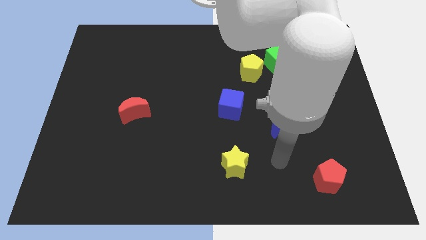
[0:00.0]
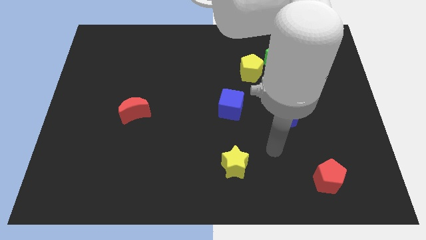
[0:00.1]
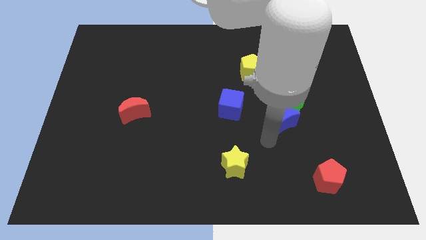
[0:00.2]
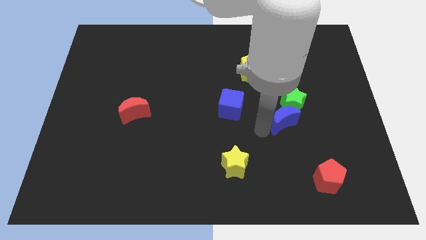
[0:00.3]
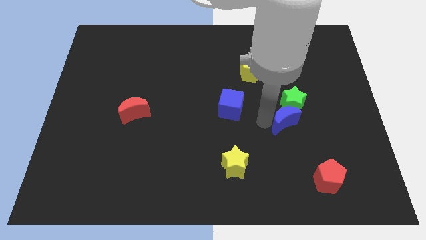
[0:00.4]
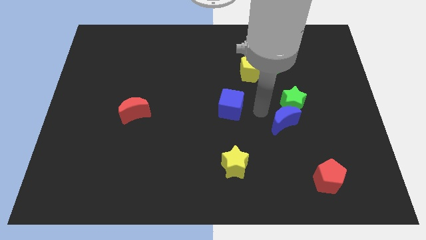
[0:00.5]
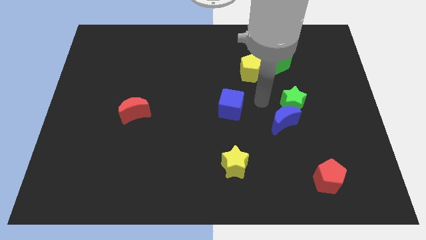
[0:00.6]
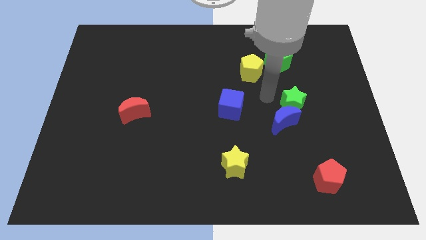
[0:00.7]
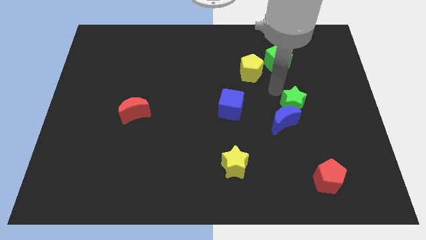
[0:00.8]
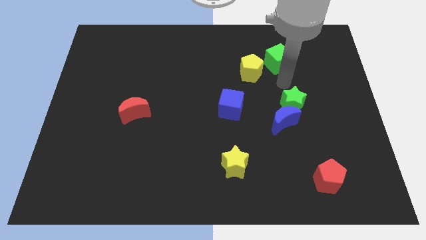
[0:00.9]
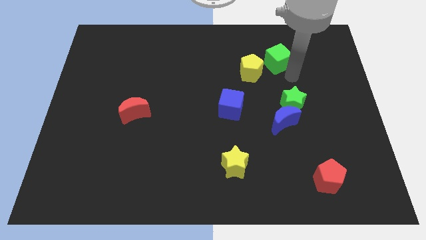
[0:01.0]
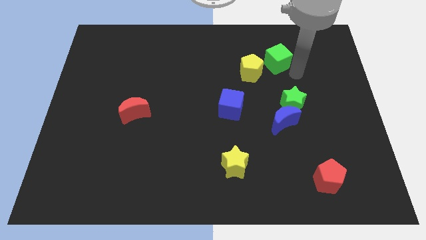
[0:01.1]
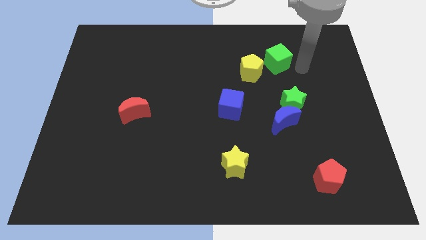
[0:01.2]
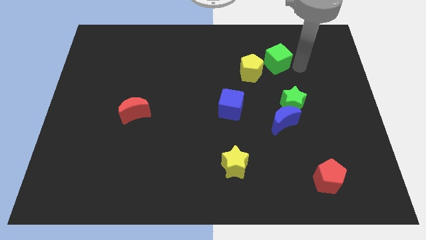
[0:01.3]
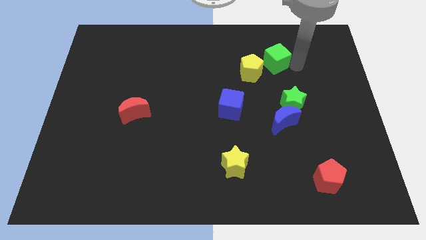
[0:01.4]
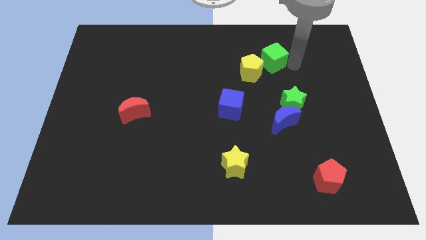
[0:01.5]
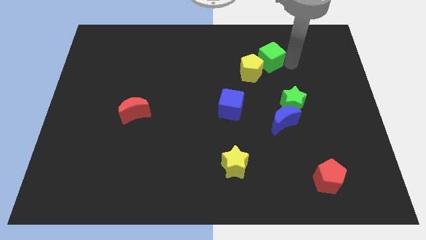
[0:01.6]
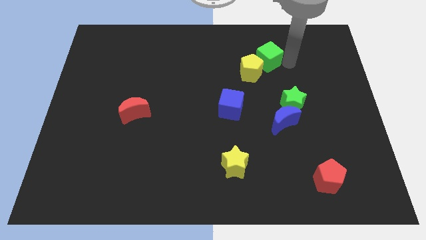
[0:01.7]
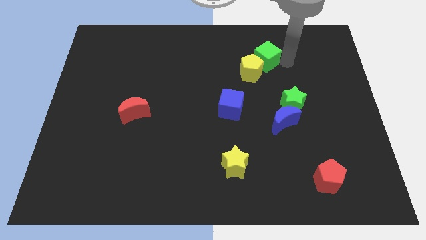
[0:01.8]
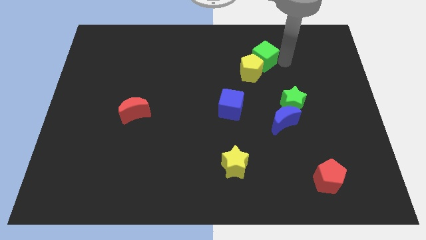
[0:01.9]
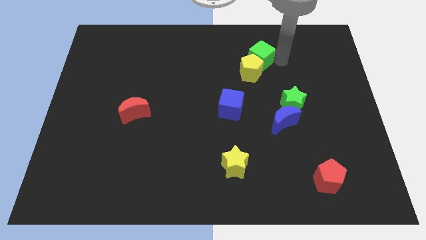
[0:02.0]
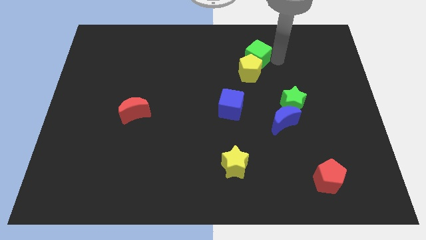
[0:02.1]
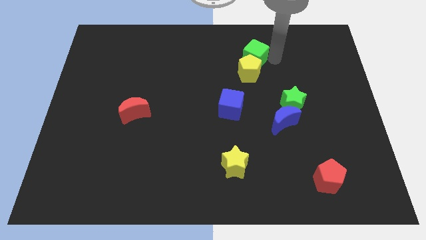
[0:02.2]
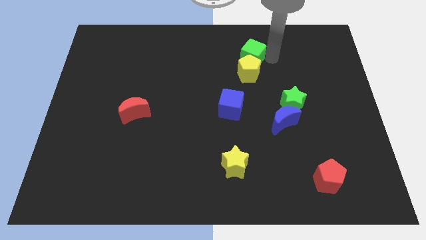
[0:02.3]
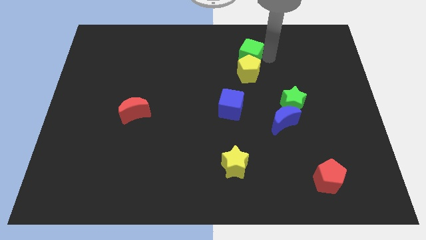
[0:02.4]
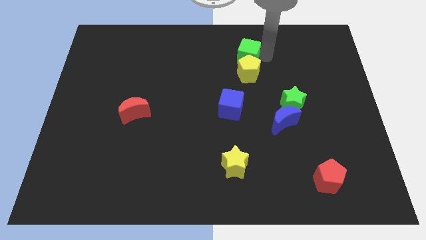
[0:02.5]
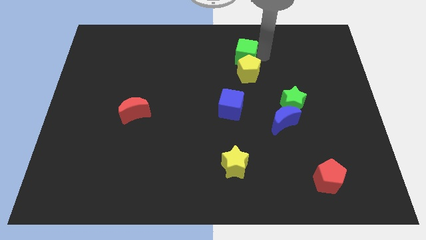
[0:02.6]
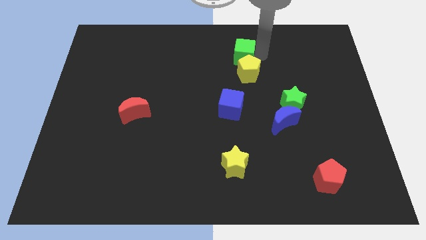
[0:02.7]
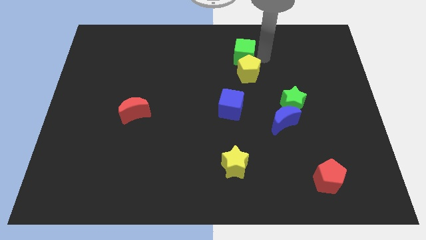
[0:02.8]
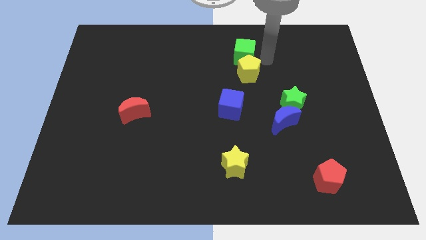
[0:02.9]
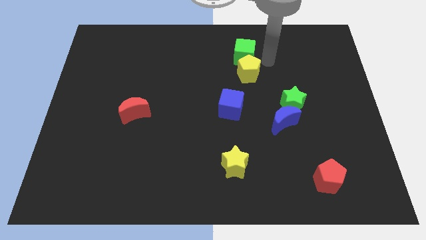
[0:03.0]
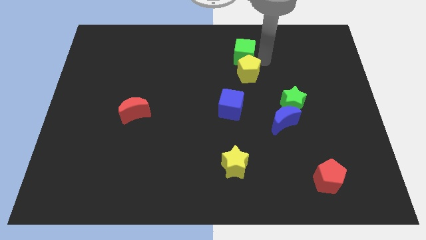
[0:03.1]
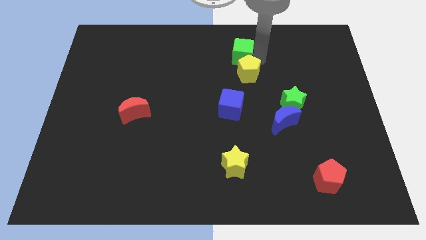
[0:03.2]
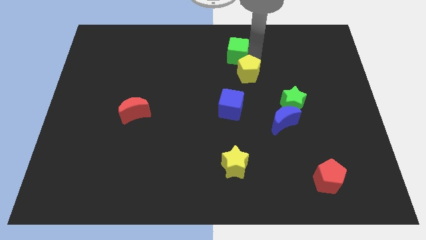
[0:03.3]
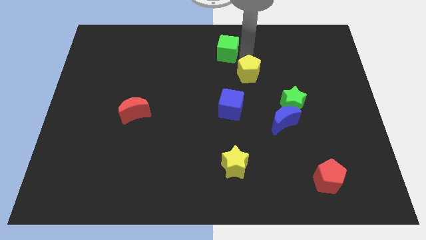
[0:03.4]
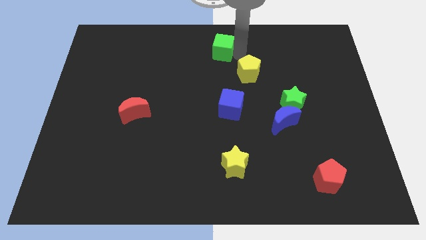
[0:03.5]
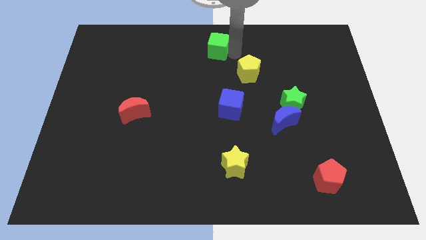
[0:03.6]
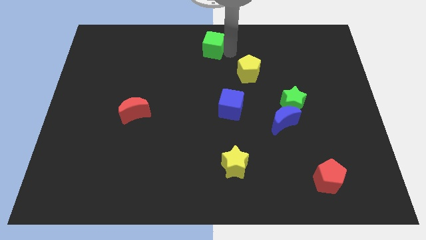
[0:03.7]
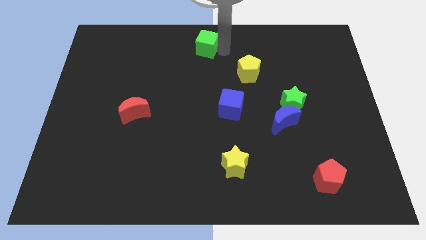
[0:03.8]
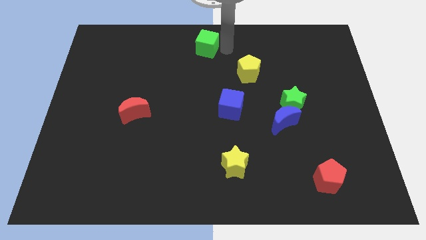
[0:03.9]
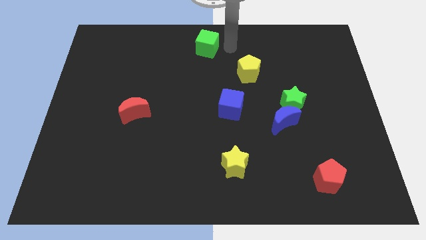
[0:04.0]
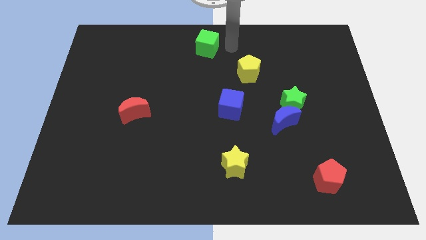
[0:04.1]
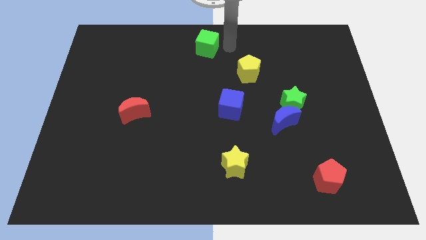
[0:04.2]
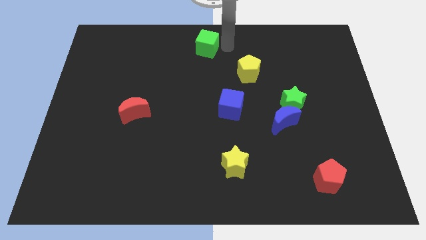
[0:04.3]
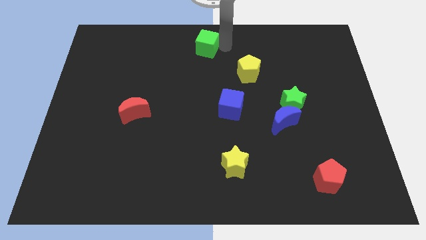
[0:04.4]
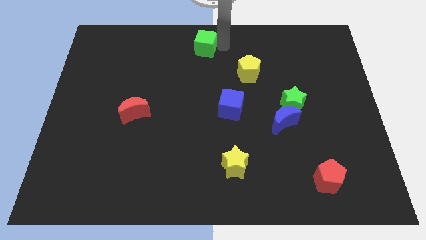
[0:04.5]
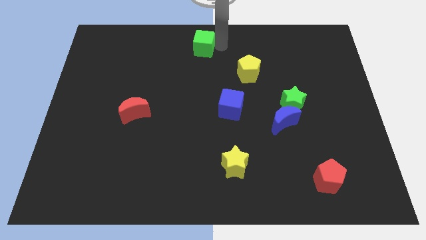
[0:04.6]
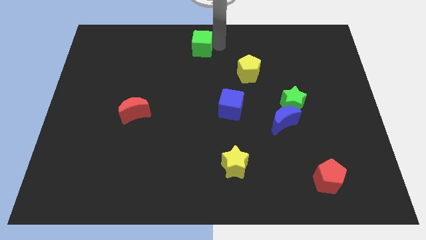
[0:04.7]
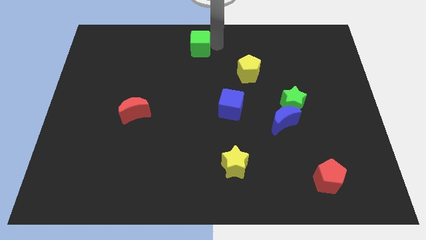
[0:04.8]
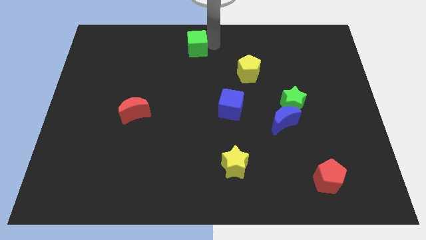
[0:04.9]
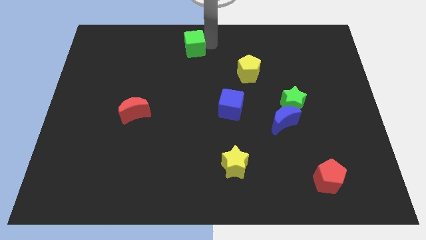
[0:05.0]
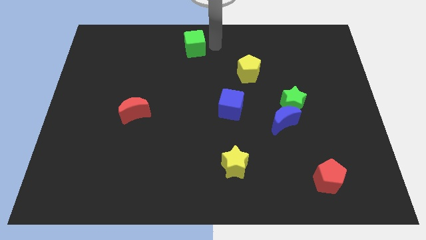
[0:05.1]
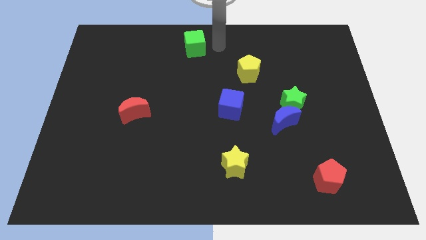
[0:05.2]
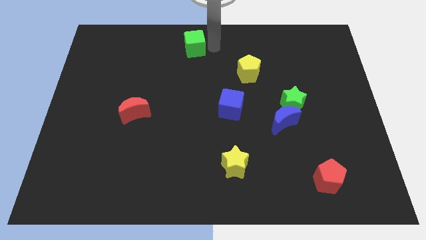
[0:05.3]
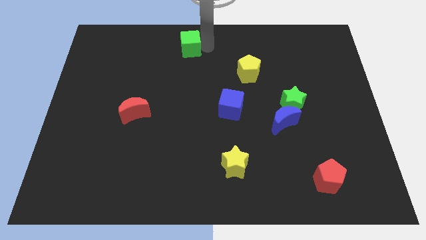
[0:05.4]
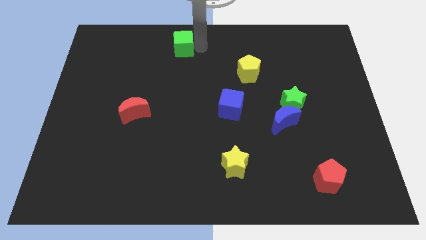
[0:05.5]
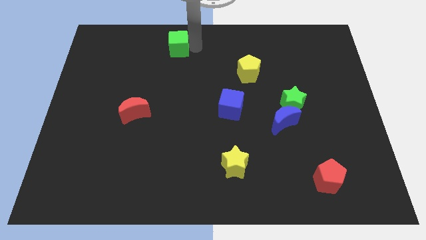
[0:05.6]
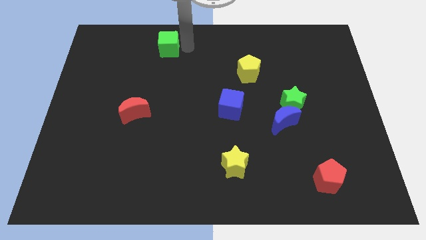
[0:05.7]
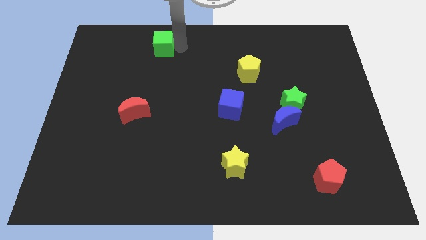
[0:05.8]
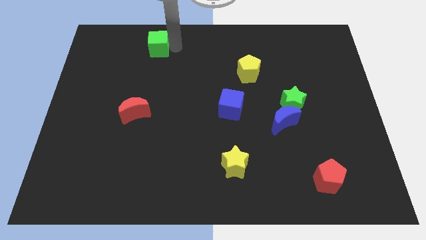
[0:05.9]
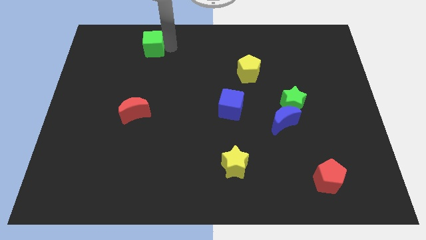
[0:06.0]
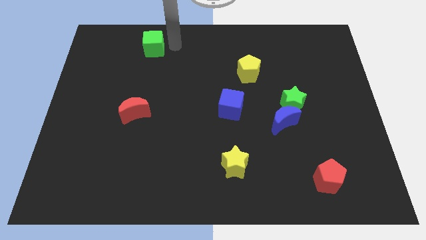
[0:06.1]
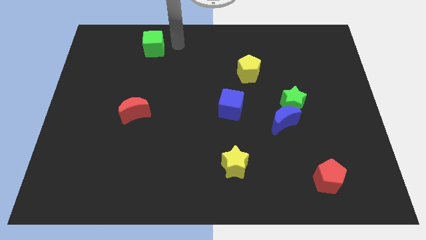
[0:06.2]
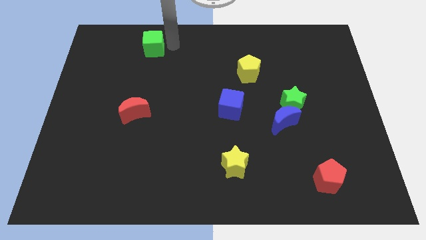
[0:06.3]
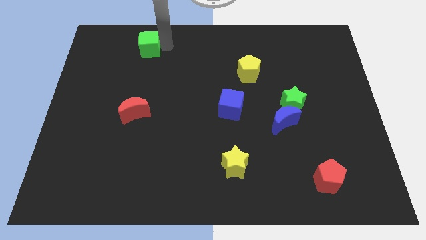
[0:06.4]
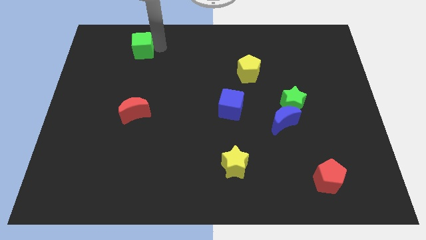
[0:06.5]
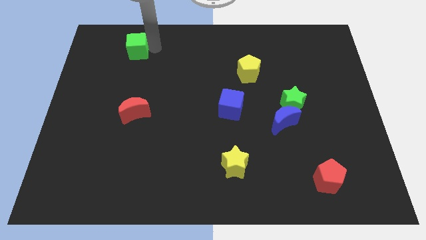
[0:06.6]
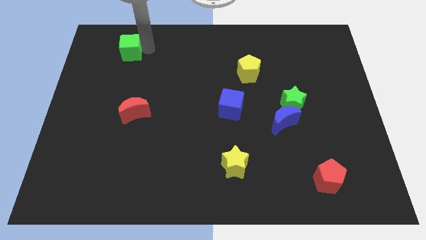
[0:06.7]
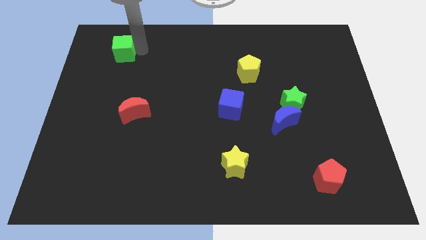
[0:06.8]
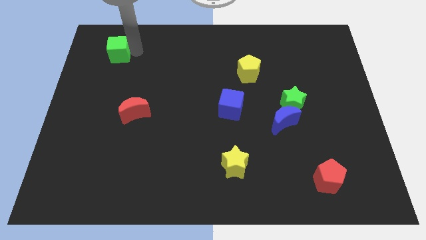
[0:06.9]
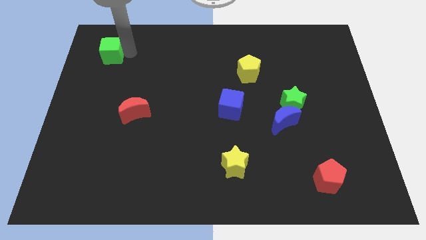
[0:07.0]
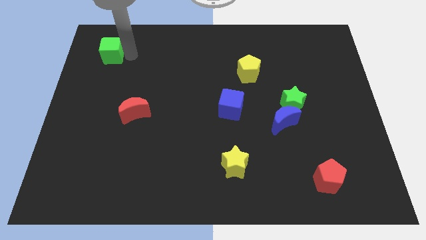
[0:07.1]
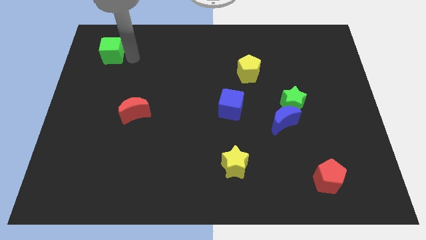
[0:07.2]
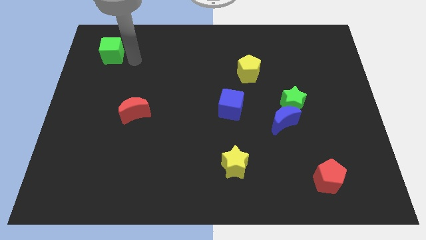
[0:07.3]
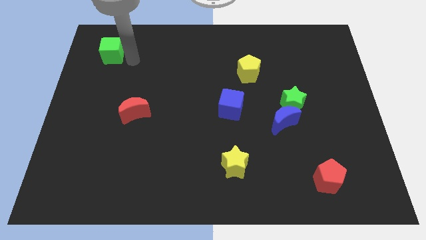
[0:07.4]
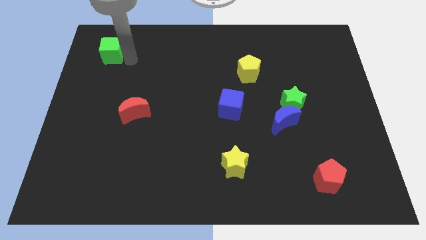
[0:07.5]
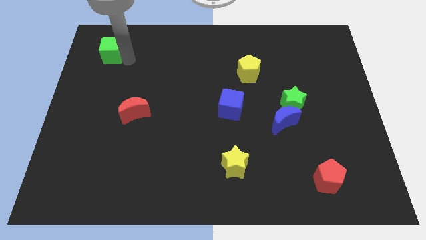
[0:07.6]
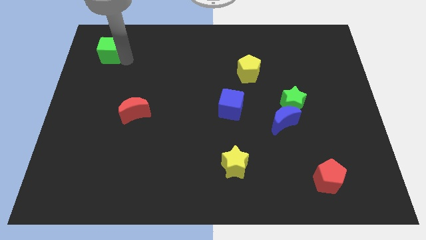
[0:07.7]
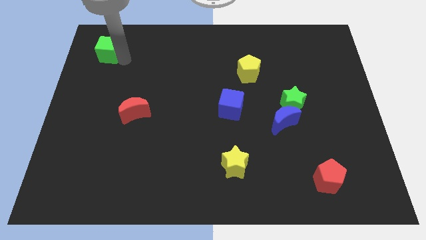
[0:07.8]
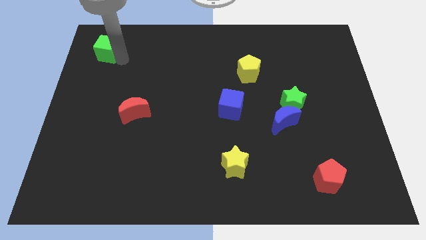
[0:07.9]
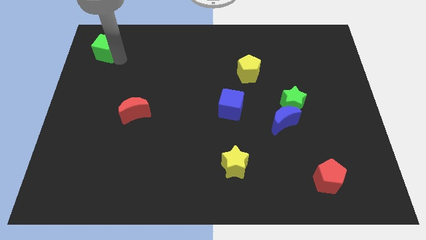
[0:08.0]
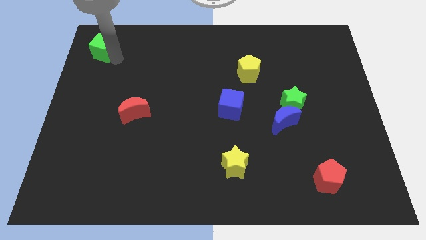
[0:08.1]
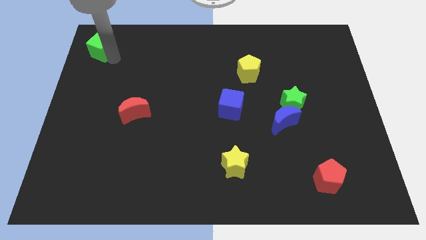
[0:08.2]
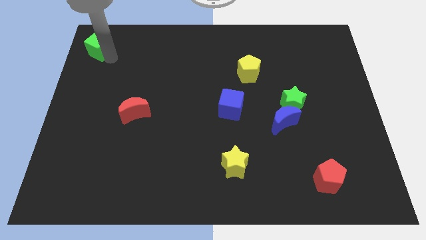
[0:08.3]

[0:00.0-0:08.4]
put the green cube to the upper left corner
